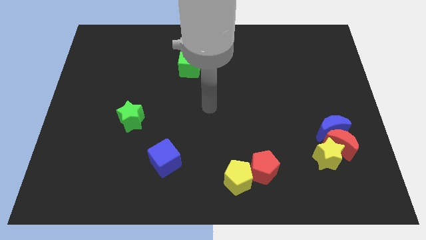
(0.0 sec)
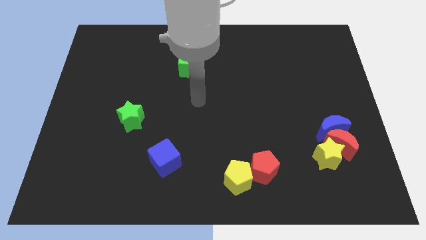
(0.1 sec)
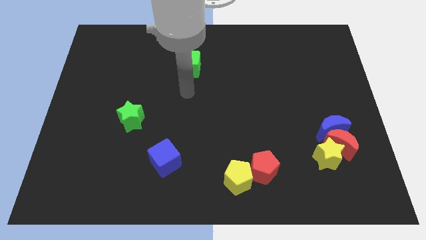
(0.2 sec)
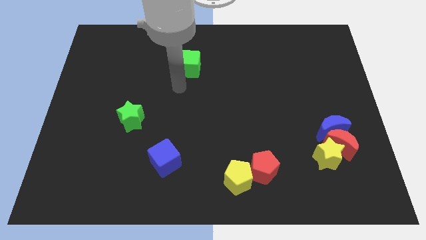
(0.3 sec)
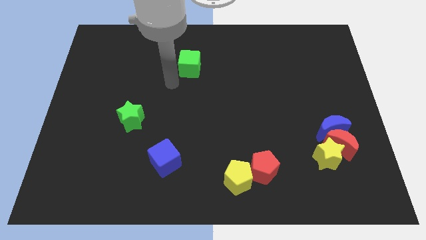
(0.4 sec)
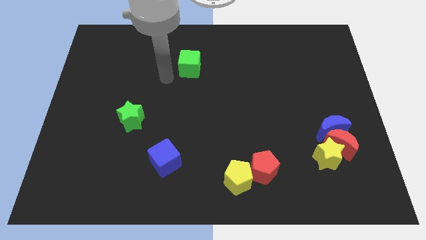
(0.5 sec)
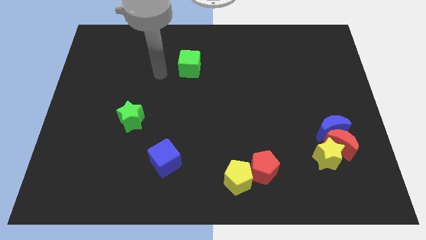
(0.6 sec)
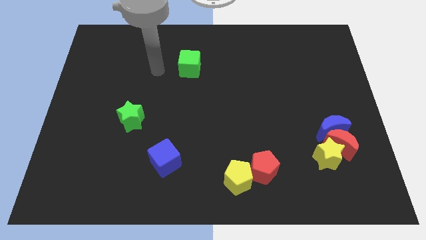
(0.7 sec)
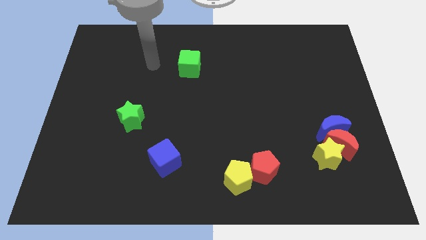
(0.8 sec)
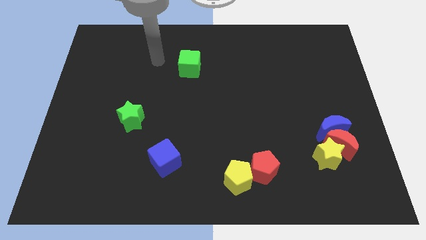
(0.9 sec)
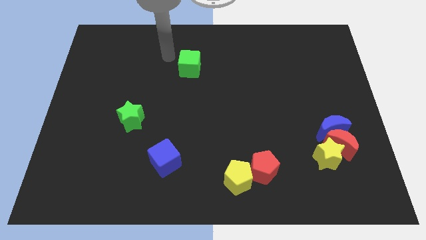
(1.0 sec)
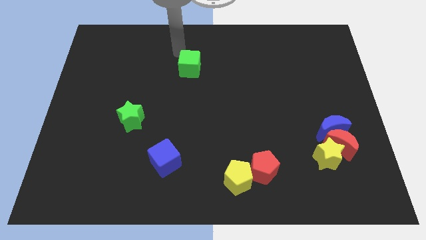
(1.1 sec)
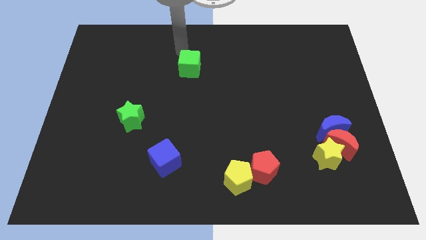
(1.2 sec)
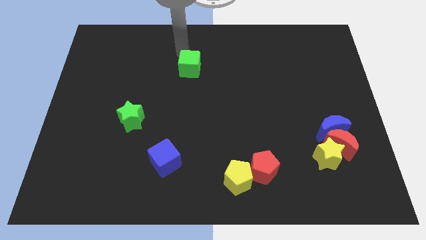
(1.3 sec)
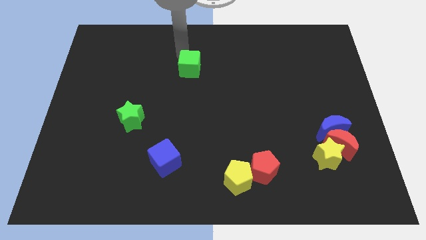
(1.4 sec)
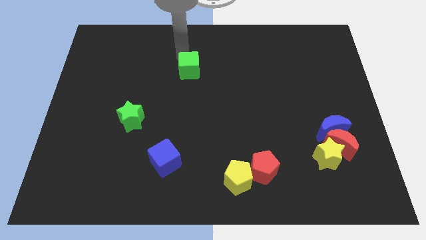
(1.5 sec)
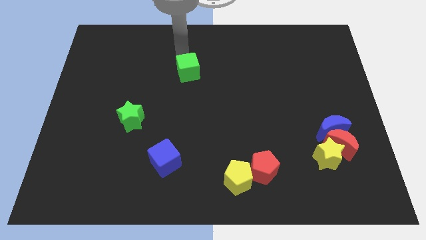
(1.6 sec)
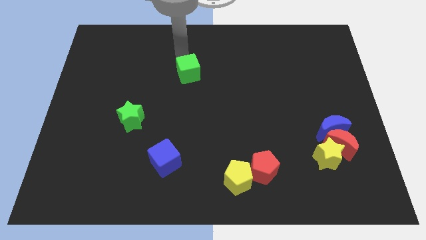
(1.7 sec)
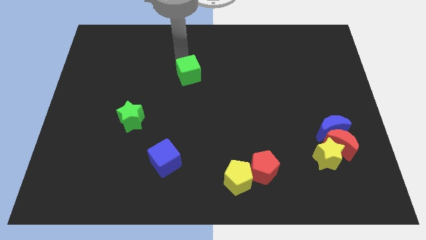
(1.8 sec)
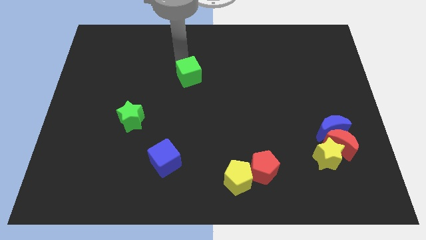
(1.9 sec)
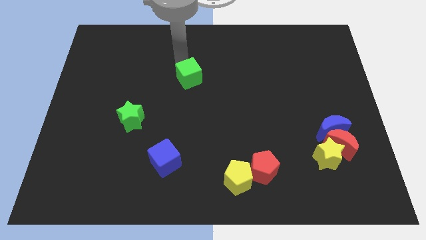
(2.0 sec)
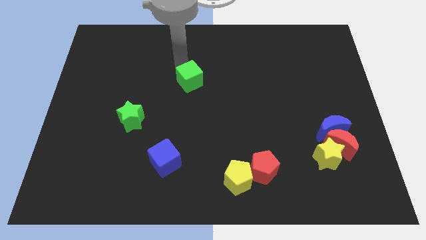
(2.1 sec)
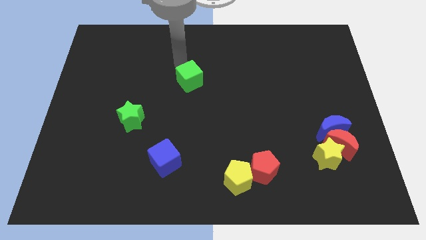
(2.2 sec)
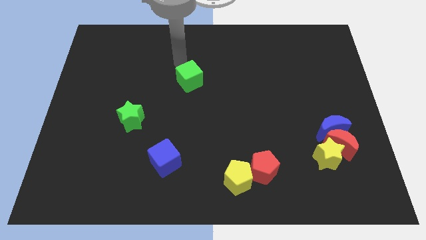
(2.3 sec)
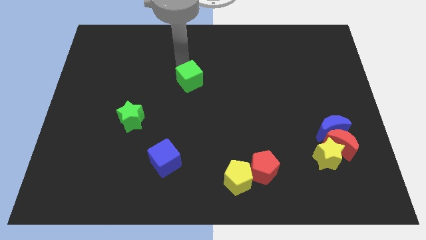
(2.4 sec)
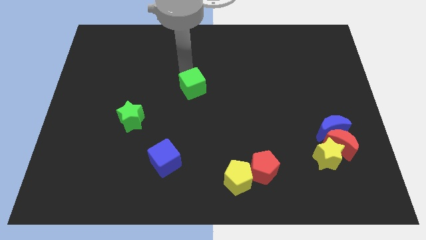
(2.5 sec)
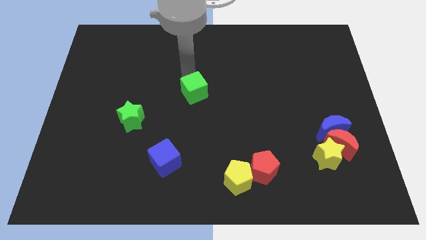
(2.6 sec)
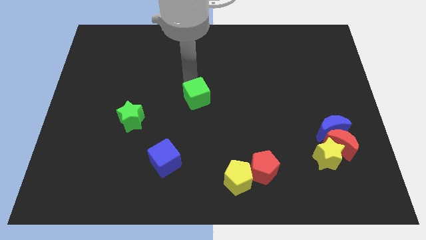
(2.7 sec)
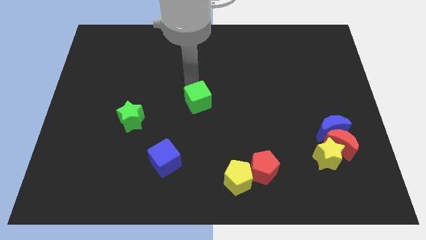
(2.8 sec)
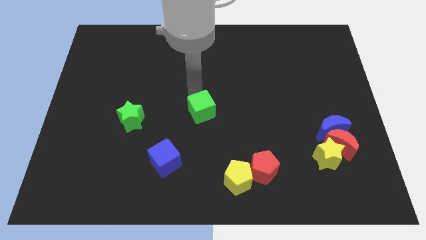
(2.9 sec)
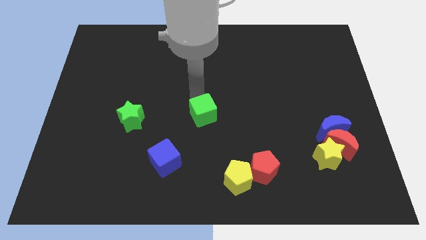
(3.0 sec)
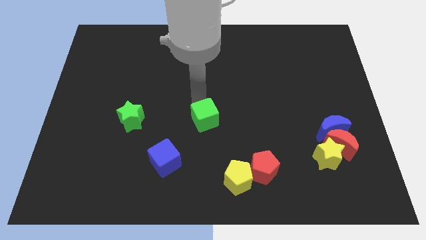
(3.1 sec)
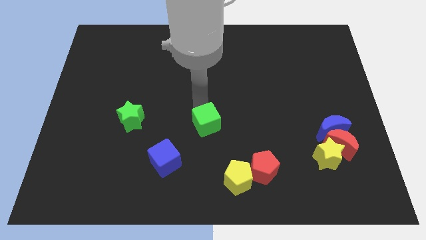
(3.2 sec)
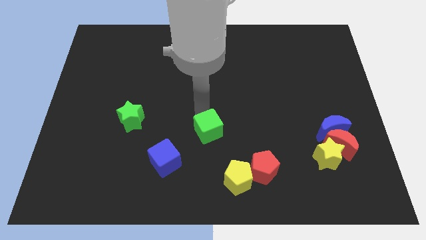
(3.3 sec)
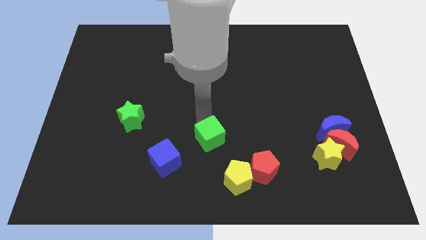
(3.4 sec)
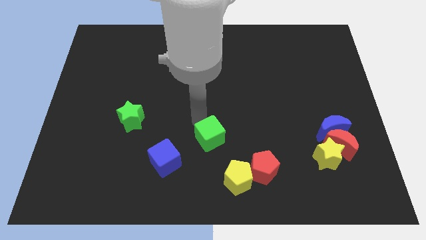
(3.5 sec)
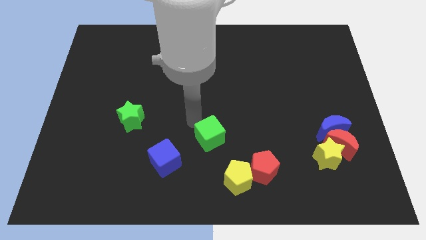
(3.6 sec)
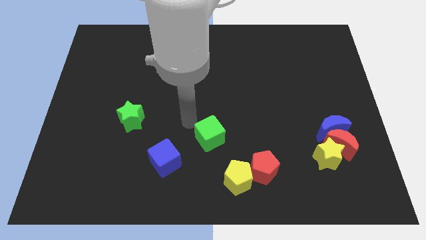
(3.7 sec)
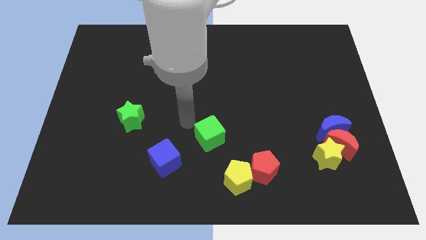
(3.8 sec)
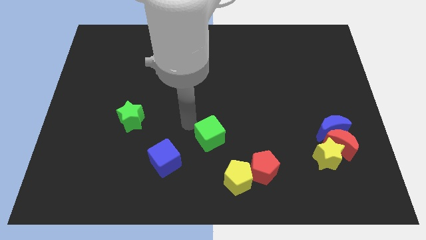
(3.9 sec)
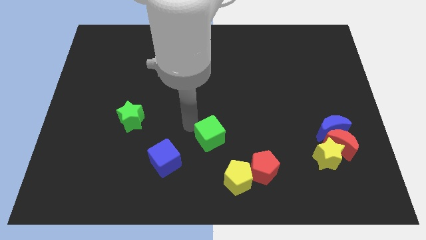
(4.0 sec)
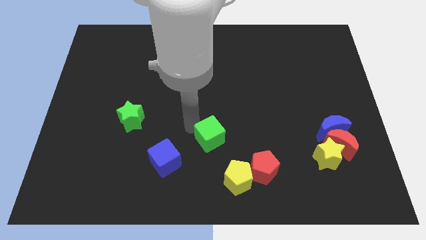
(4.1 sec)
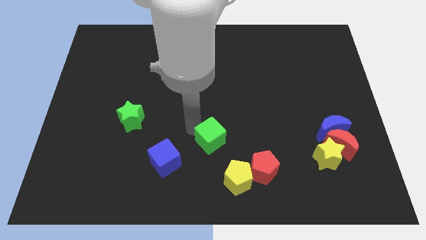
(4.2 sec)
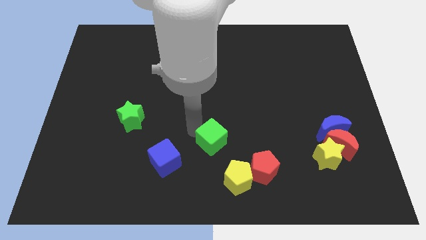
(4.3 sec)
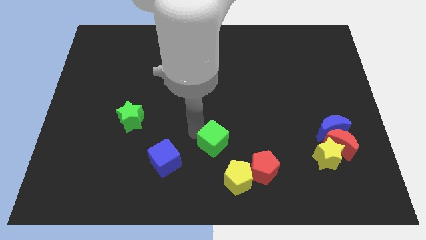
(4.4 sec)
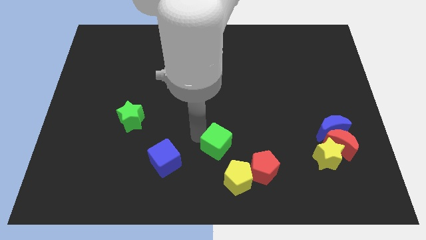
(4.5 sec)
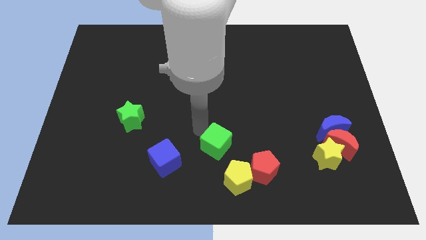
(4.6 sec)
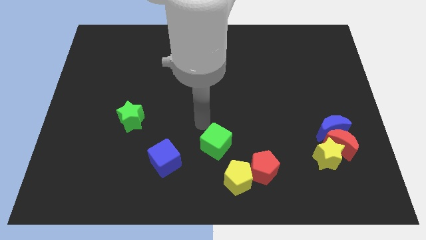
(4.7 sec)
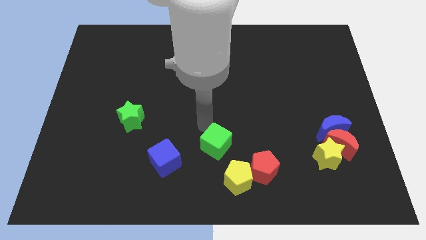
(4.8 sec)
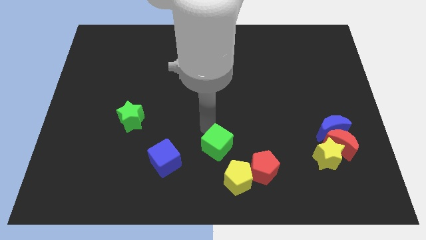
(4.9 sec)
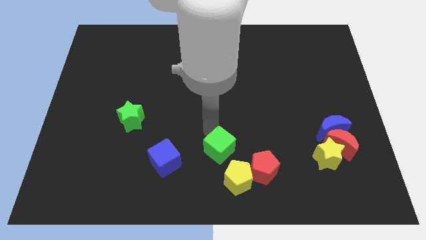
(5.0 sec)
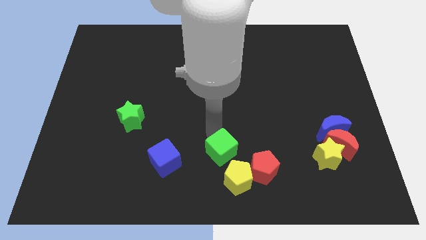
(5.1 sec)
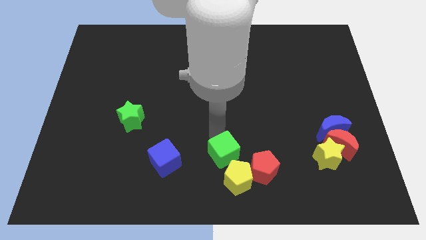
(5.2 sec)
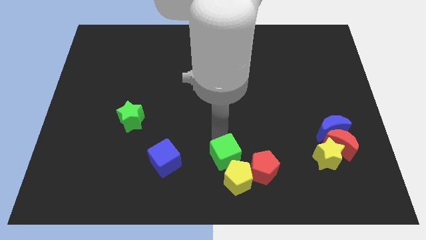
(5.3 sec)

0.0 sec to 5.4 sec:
move the green cube towards the yellow pentagon

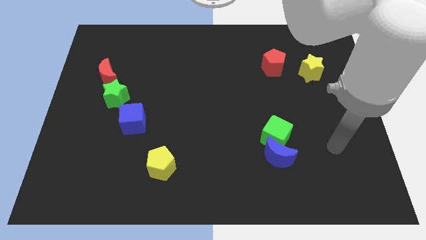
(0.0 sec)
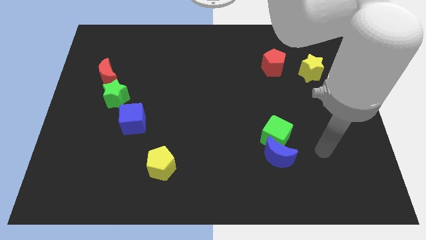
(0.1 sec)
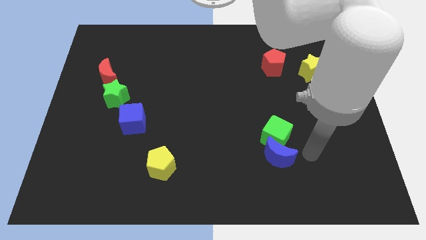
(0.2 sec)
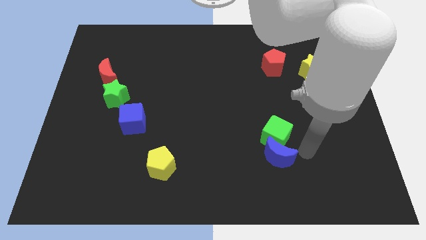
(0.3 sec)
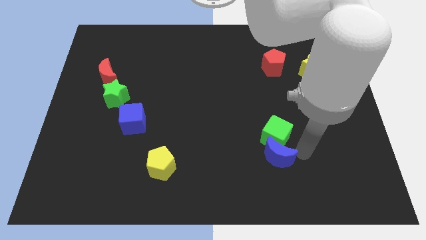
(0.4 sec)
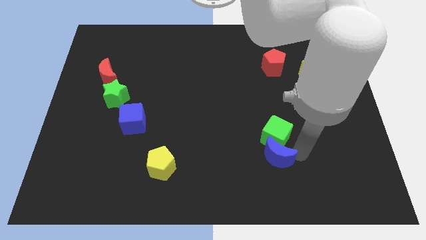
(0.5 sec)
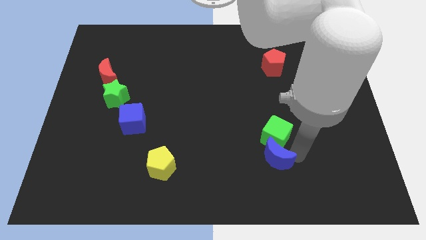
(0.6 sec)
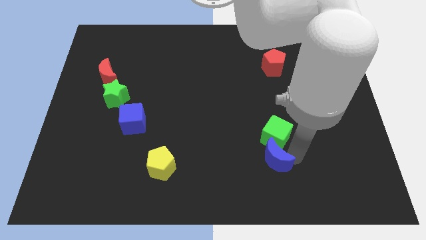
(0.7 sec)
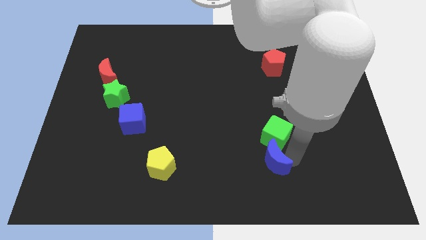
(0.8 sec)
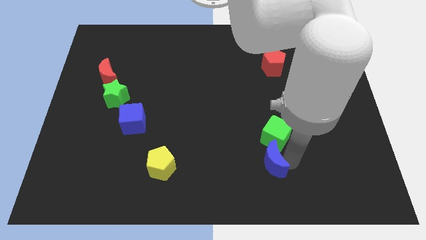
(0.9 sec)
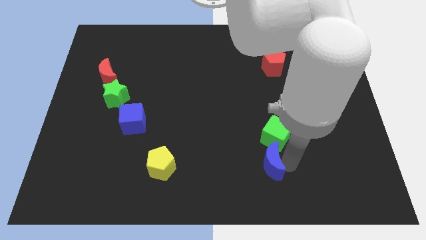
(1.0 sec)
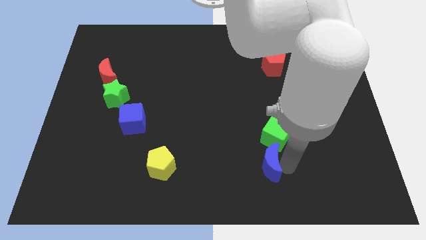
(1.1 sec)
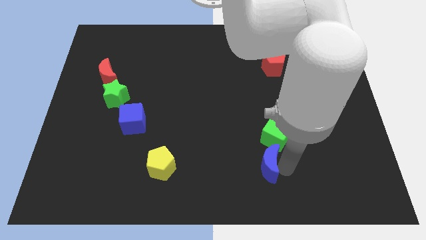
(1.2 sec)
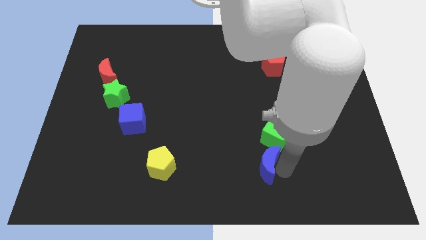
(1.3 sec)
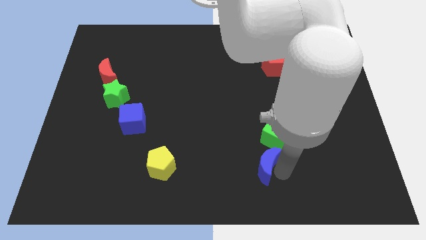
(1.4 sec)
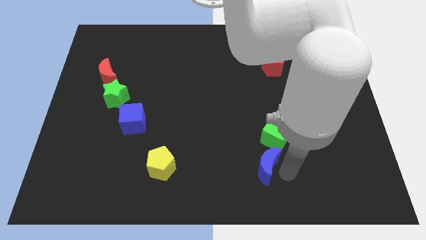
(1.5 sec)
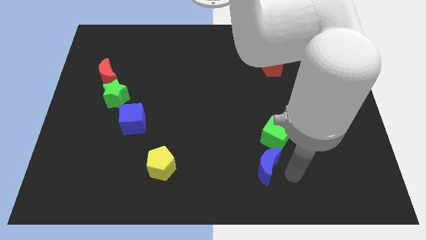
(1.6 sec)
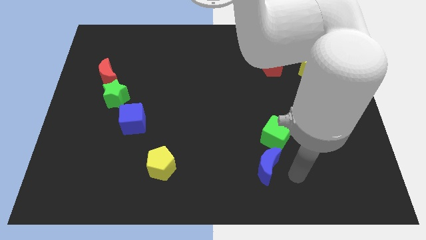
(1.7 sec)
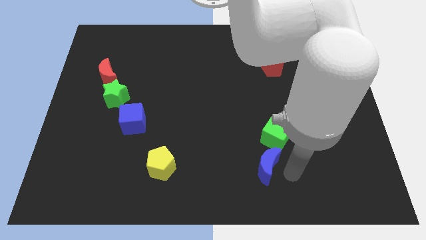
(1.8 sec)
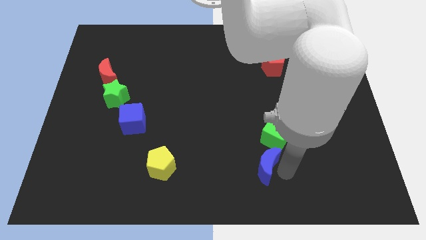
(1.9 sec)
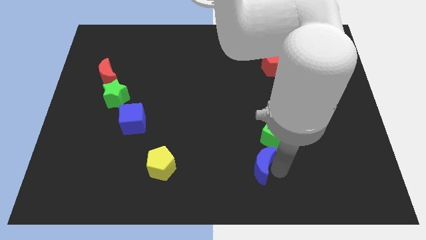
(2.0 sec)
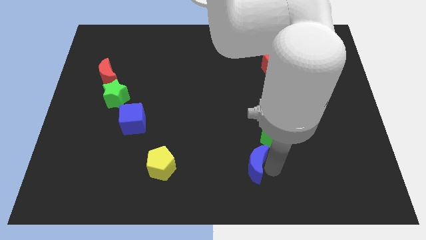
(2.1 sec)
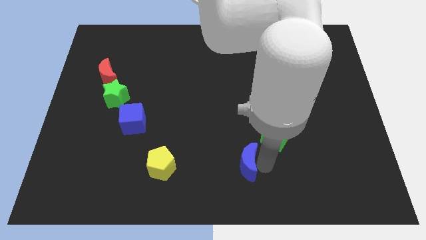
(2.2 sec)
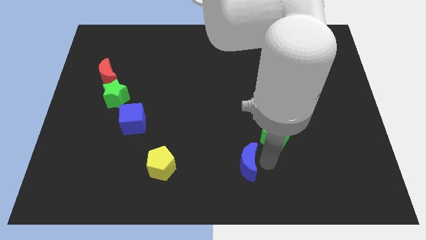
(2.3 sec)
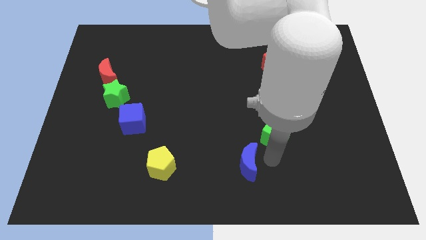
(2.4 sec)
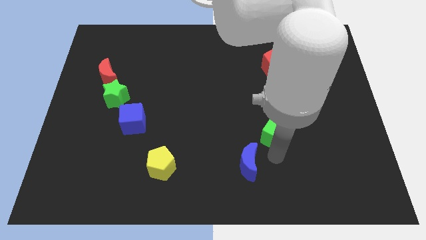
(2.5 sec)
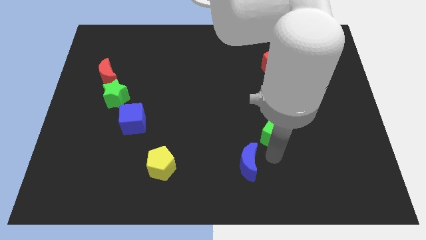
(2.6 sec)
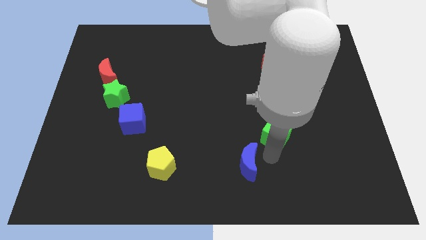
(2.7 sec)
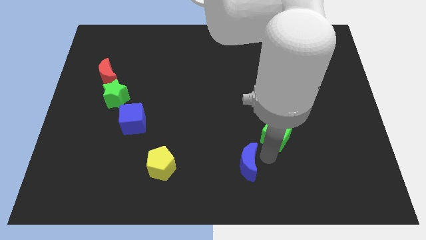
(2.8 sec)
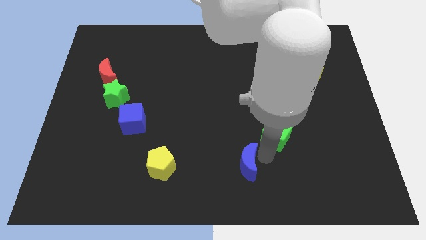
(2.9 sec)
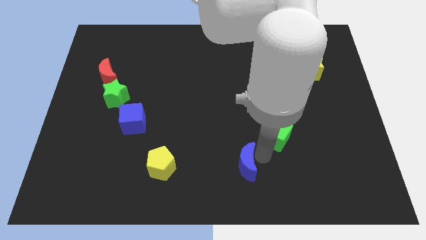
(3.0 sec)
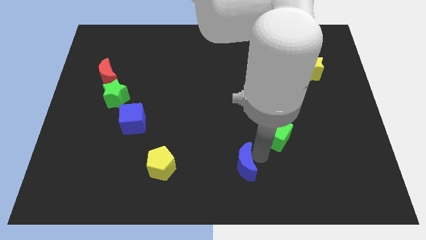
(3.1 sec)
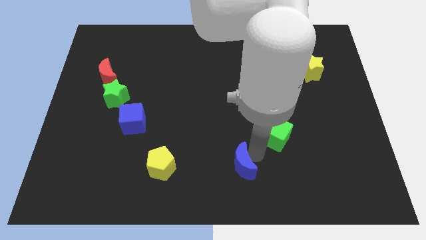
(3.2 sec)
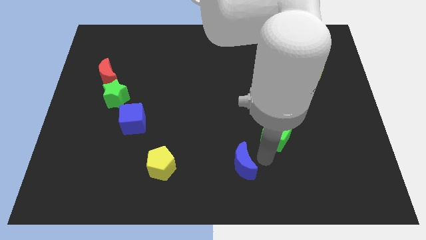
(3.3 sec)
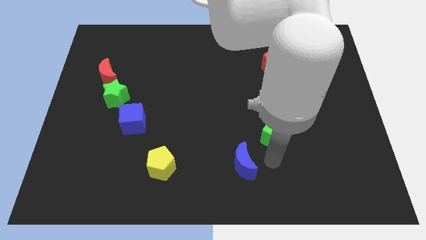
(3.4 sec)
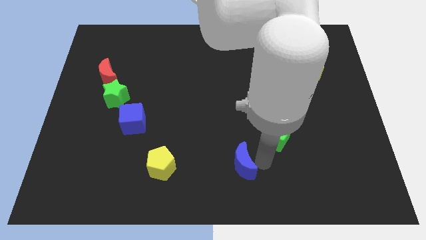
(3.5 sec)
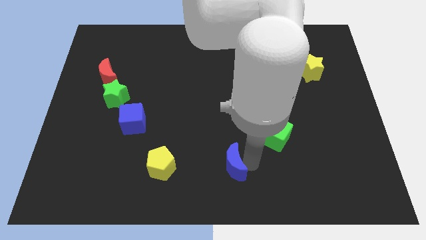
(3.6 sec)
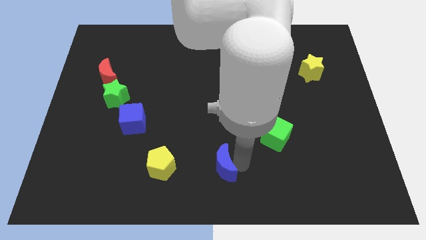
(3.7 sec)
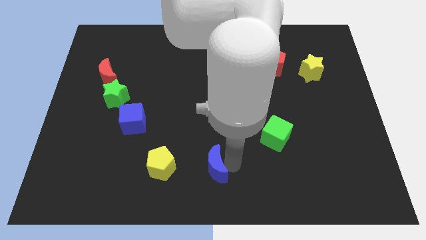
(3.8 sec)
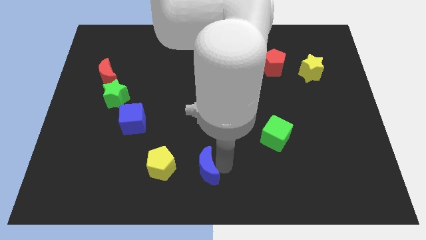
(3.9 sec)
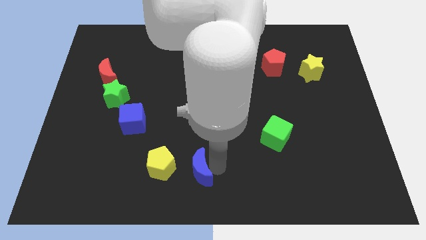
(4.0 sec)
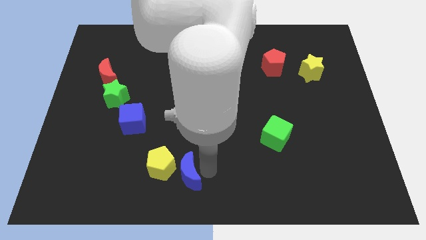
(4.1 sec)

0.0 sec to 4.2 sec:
put the blue moon towards the yellow pentagon
